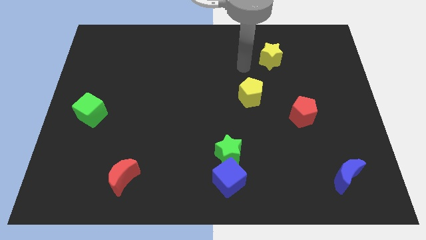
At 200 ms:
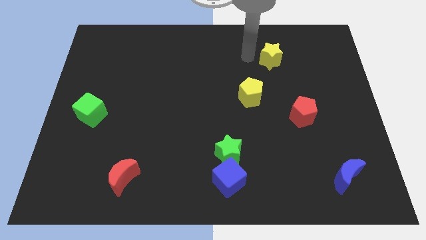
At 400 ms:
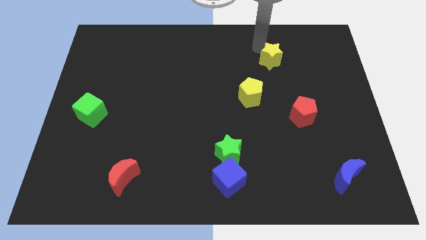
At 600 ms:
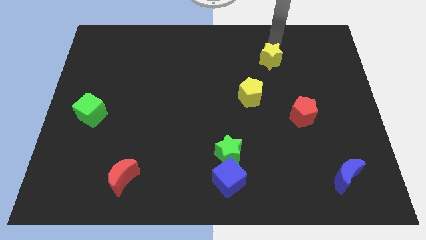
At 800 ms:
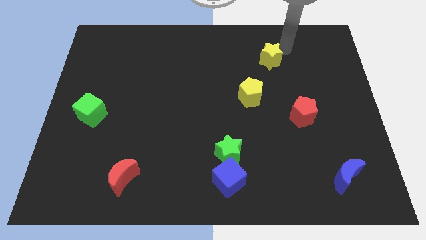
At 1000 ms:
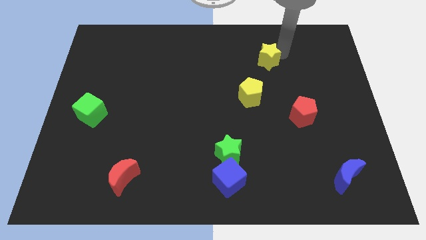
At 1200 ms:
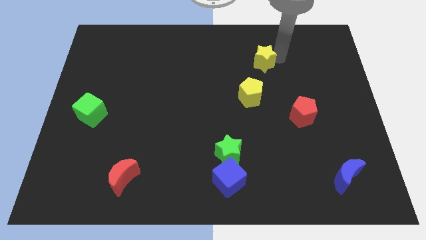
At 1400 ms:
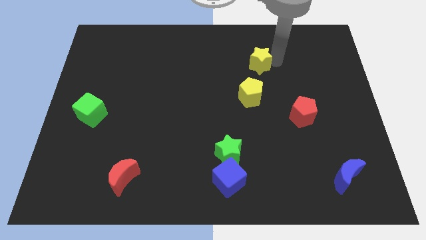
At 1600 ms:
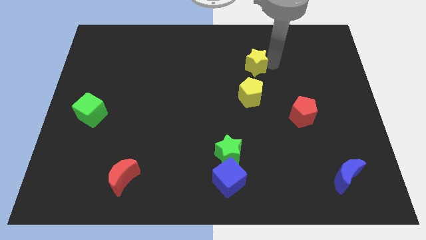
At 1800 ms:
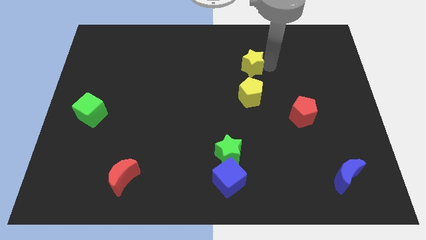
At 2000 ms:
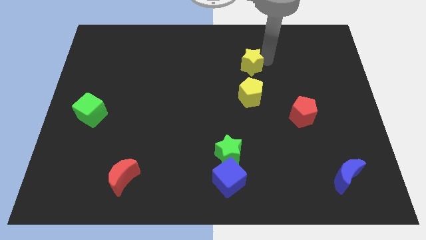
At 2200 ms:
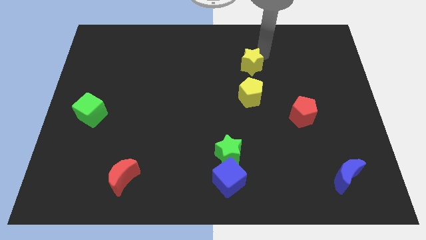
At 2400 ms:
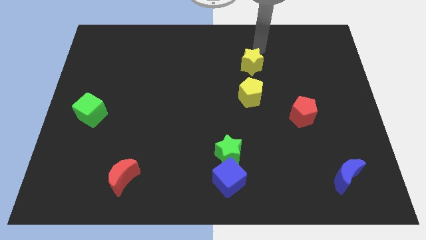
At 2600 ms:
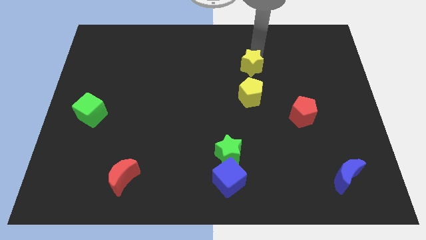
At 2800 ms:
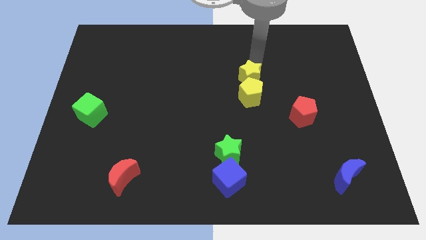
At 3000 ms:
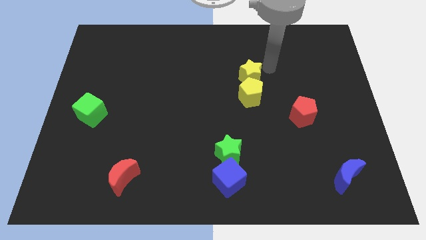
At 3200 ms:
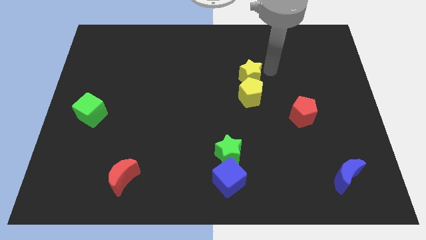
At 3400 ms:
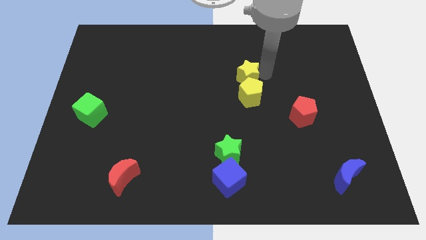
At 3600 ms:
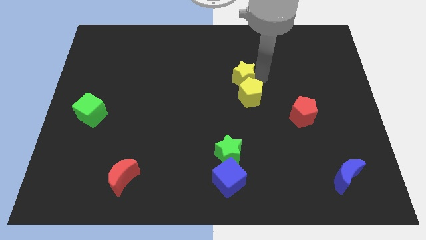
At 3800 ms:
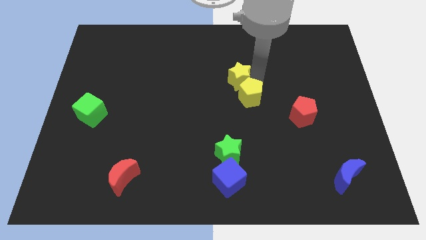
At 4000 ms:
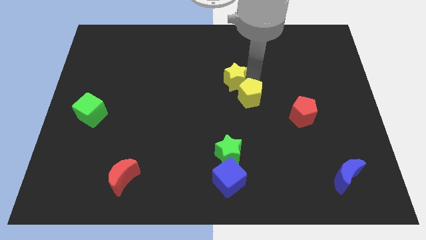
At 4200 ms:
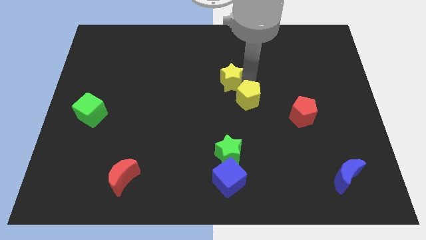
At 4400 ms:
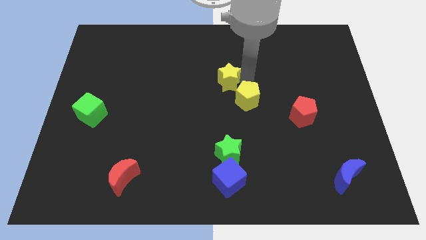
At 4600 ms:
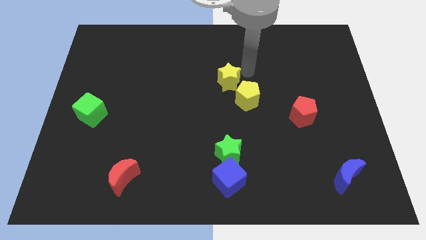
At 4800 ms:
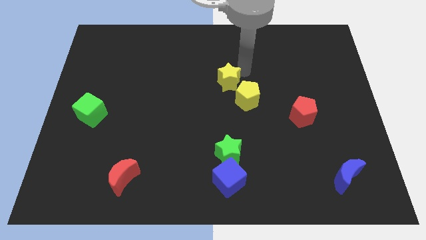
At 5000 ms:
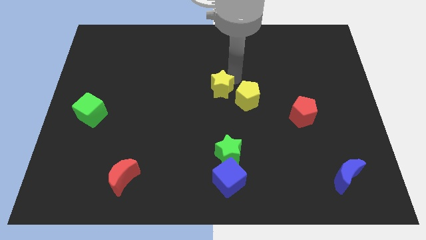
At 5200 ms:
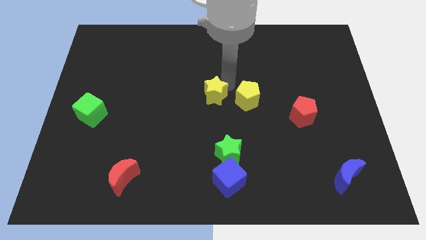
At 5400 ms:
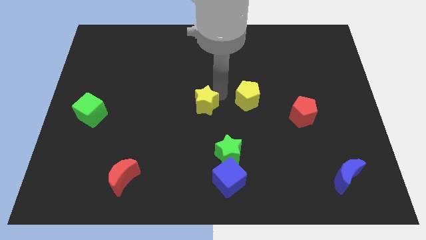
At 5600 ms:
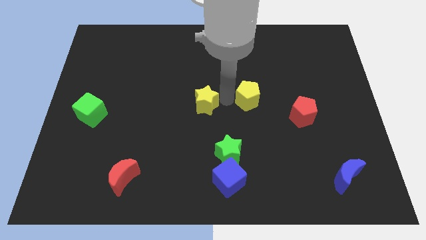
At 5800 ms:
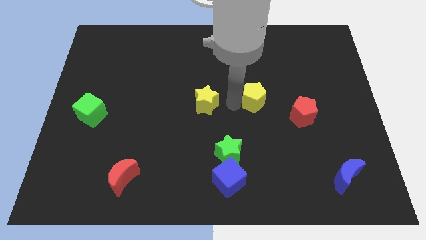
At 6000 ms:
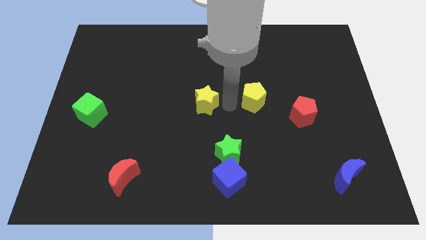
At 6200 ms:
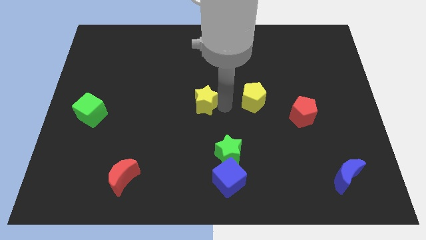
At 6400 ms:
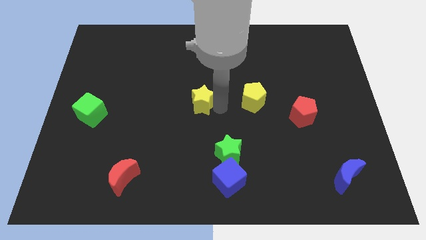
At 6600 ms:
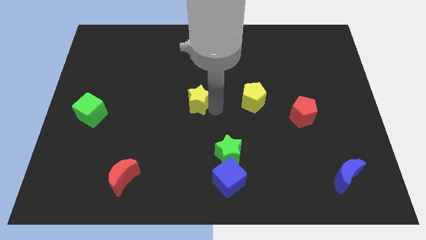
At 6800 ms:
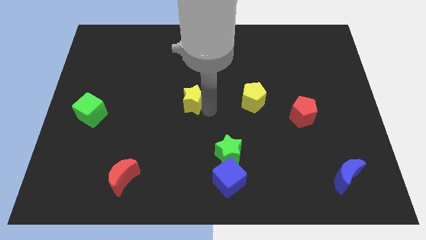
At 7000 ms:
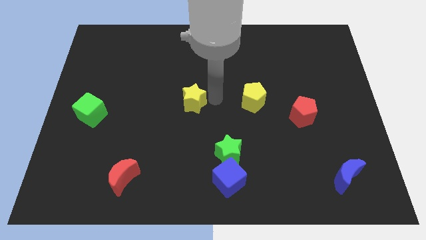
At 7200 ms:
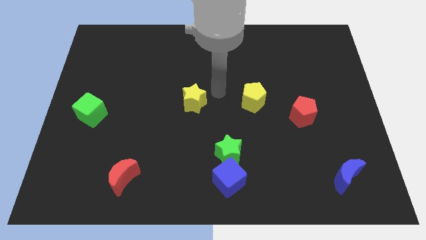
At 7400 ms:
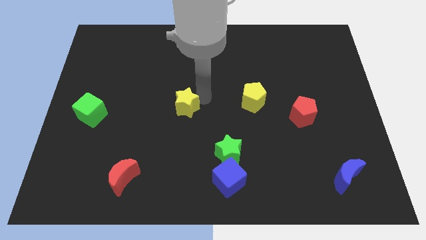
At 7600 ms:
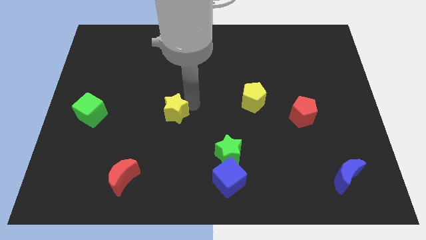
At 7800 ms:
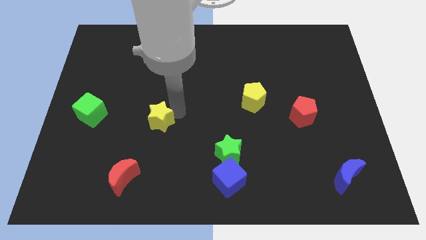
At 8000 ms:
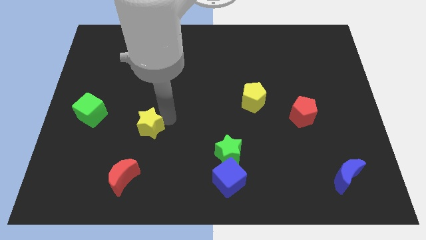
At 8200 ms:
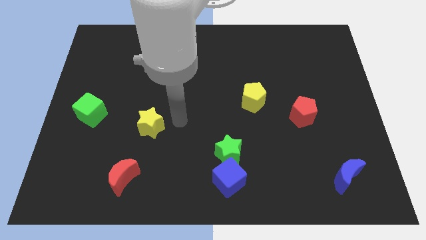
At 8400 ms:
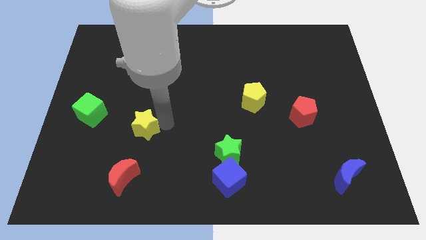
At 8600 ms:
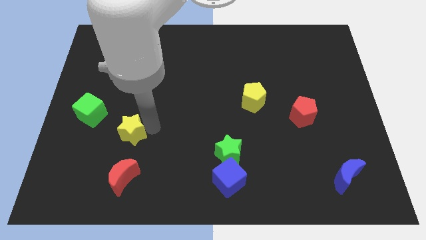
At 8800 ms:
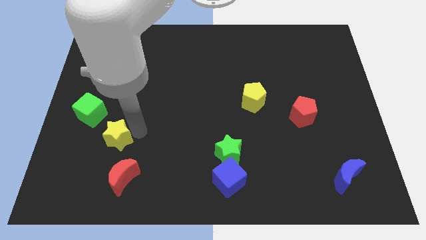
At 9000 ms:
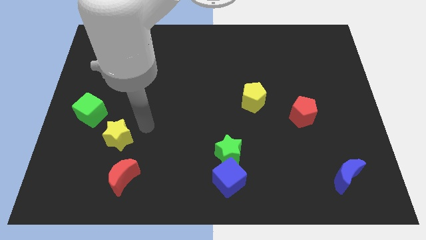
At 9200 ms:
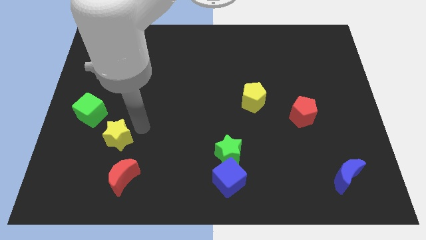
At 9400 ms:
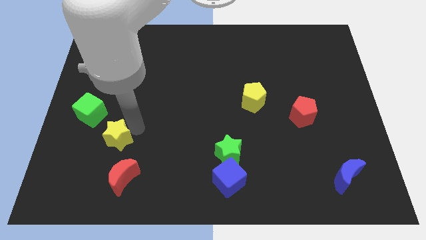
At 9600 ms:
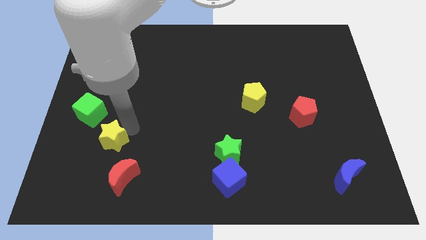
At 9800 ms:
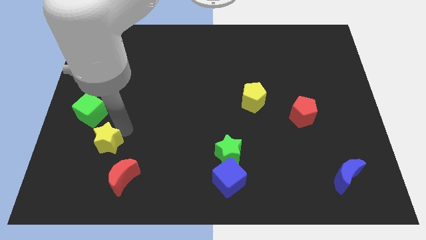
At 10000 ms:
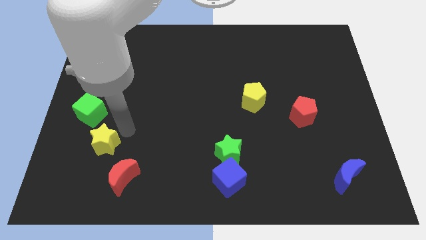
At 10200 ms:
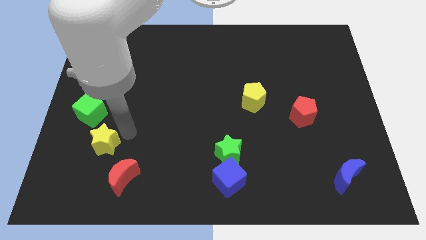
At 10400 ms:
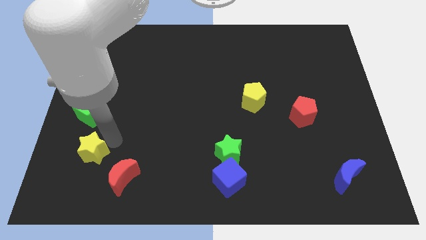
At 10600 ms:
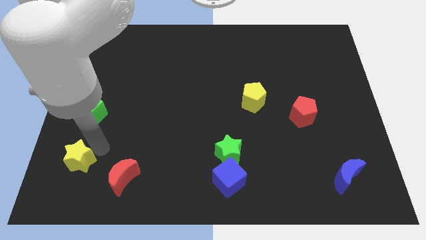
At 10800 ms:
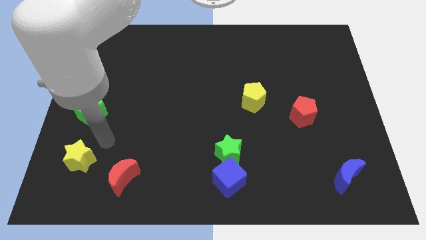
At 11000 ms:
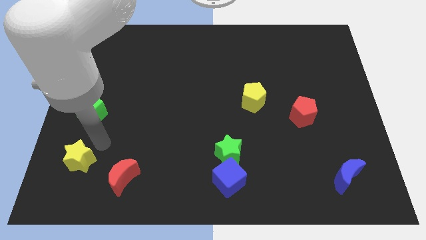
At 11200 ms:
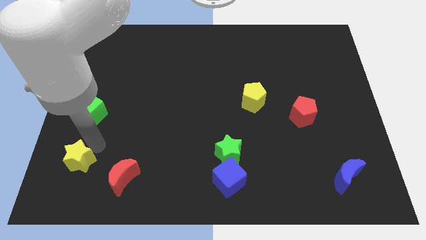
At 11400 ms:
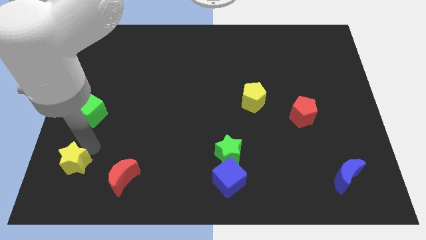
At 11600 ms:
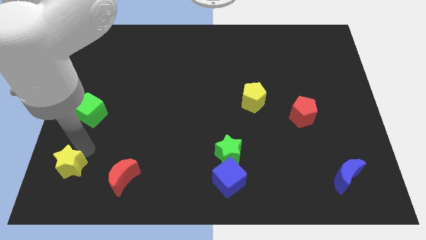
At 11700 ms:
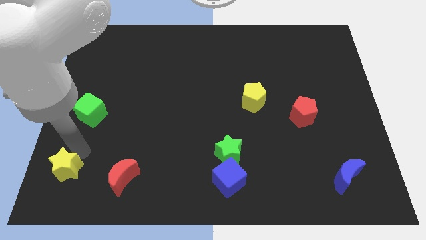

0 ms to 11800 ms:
slide the yellow star to the lower left corner

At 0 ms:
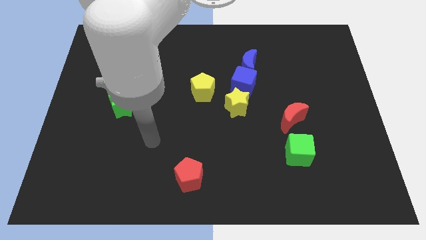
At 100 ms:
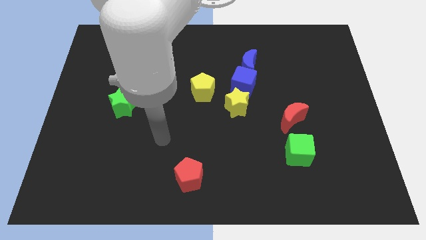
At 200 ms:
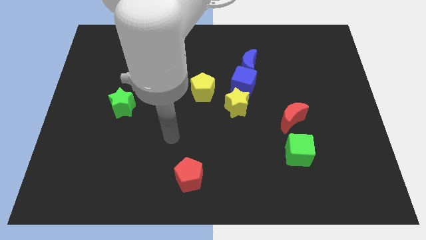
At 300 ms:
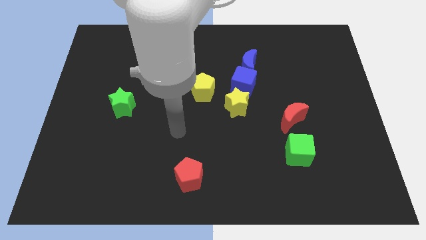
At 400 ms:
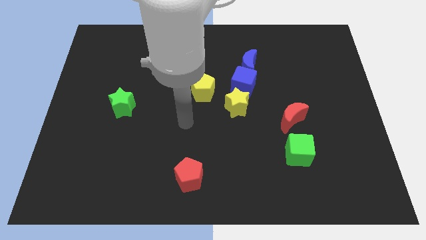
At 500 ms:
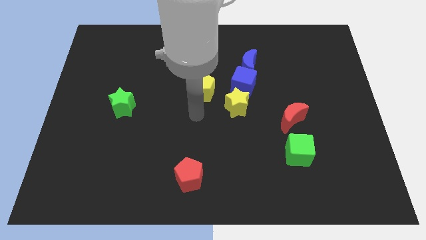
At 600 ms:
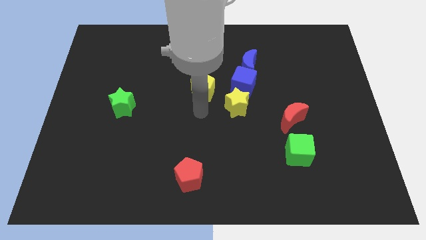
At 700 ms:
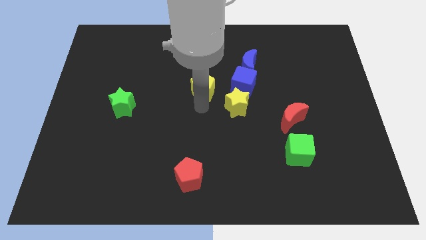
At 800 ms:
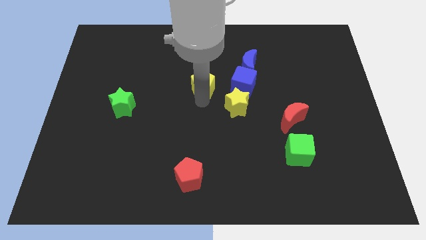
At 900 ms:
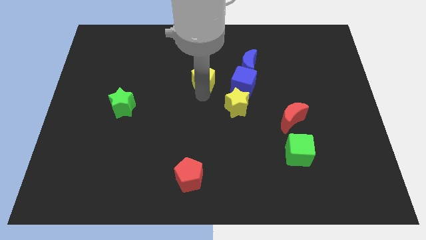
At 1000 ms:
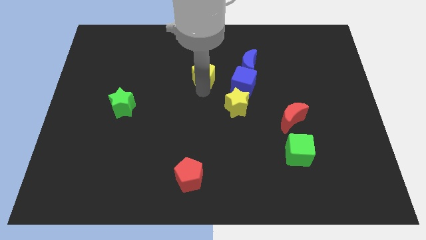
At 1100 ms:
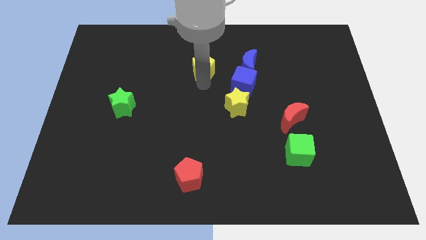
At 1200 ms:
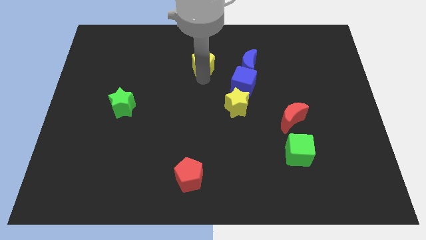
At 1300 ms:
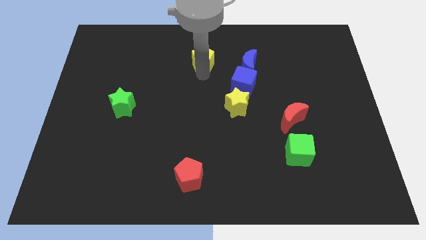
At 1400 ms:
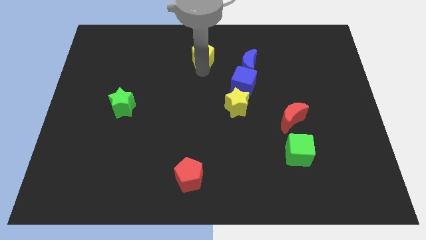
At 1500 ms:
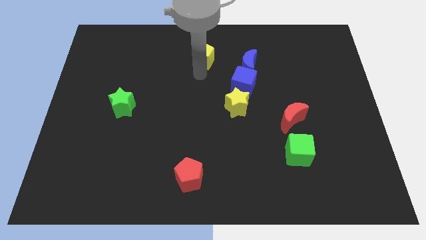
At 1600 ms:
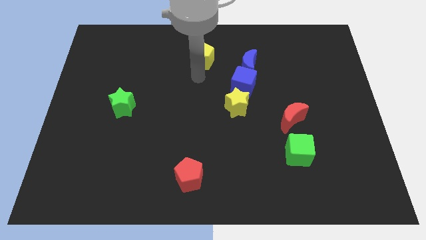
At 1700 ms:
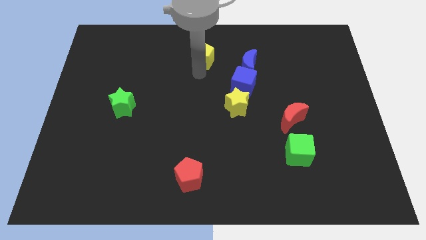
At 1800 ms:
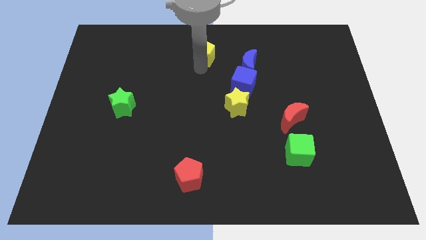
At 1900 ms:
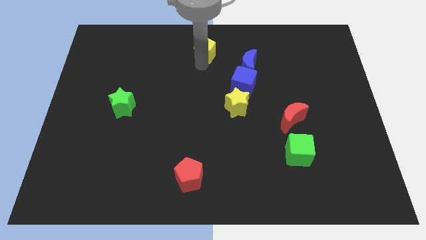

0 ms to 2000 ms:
slide the yellow pentagon to the top side
